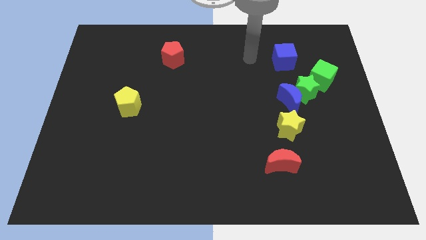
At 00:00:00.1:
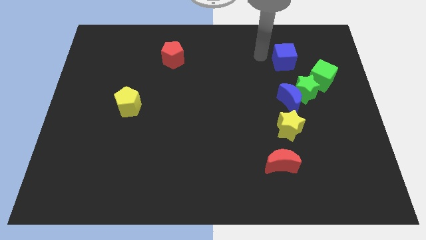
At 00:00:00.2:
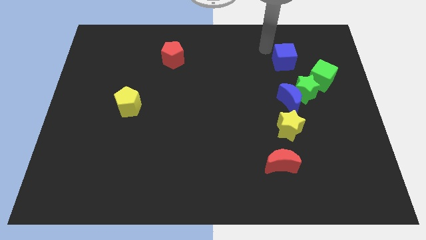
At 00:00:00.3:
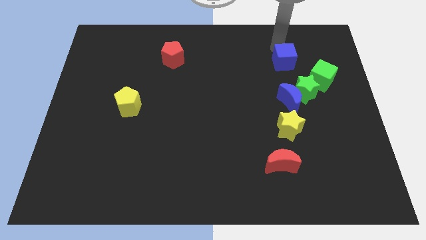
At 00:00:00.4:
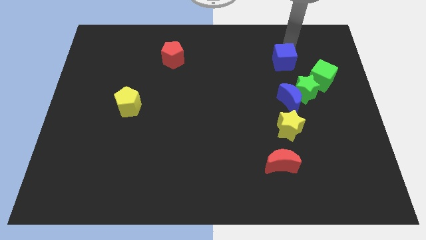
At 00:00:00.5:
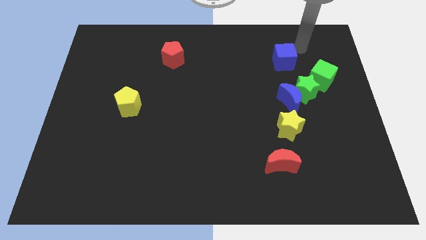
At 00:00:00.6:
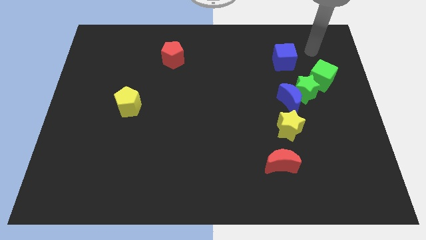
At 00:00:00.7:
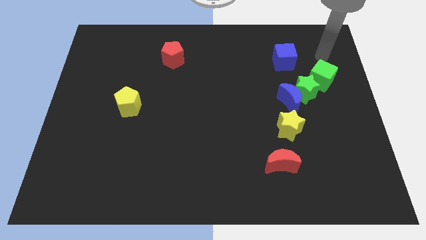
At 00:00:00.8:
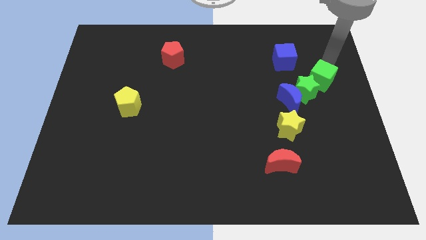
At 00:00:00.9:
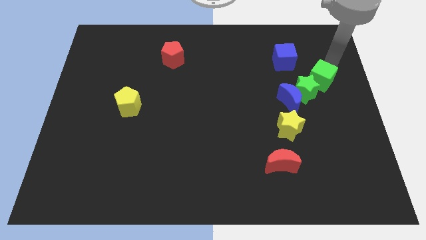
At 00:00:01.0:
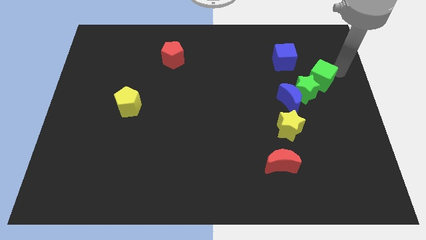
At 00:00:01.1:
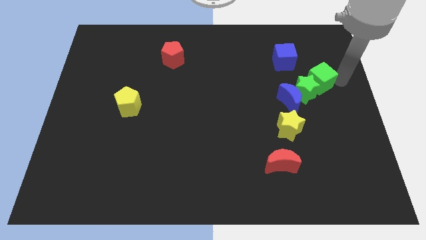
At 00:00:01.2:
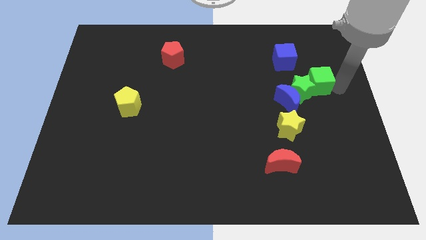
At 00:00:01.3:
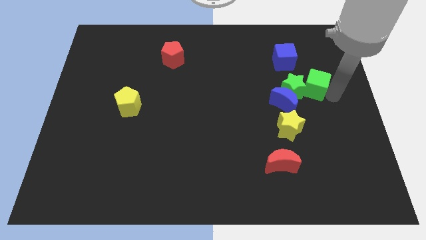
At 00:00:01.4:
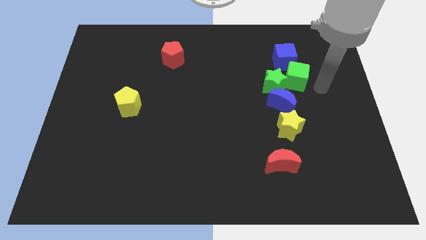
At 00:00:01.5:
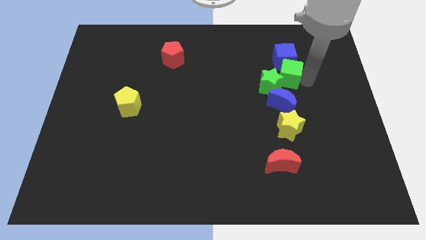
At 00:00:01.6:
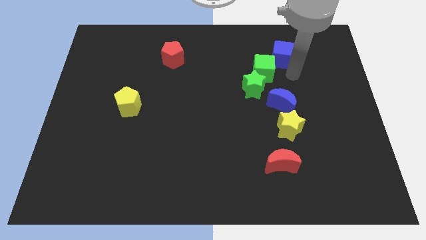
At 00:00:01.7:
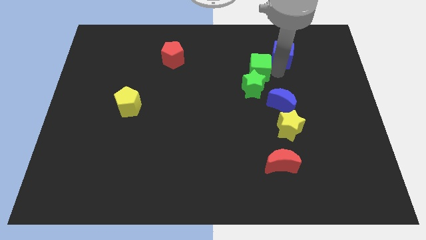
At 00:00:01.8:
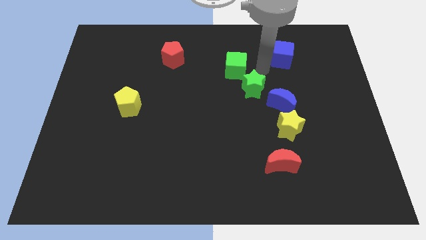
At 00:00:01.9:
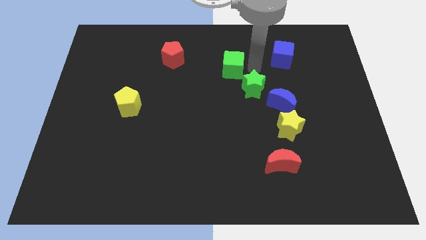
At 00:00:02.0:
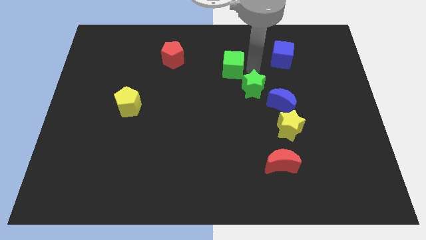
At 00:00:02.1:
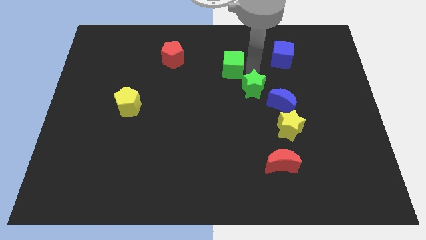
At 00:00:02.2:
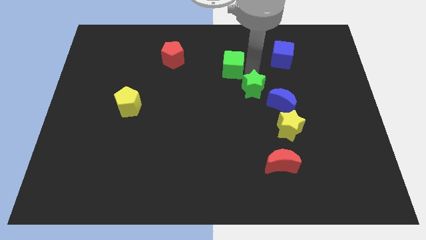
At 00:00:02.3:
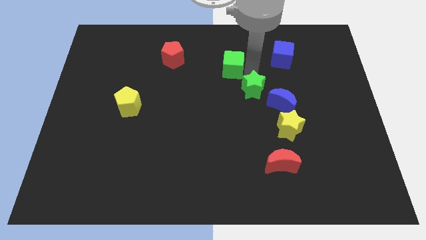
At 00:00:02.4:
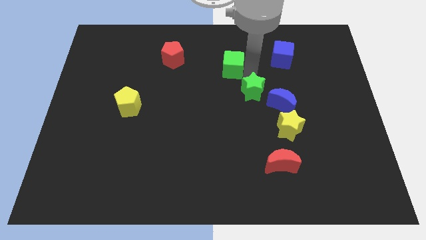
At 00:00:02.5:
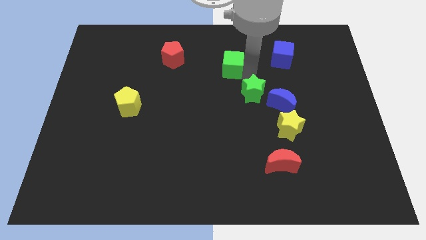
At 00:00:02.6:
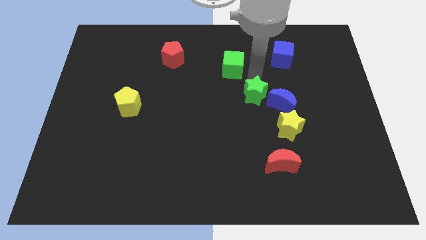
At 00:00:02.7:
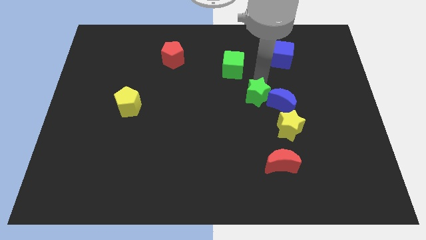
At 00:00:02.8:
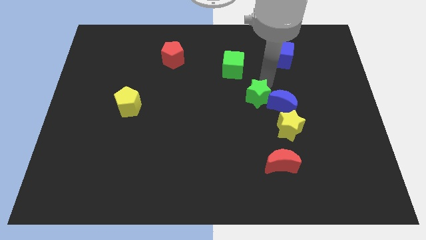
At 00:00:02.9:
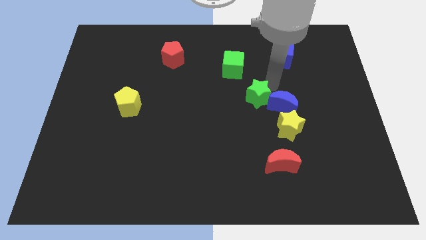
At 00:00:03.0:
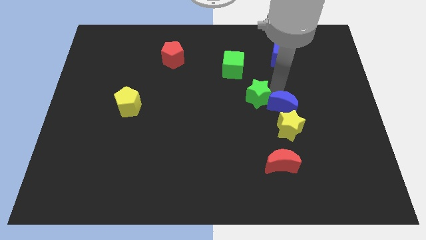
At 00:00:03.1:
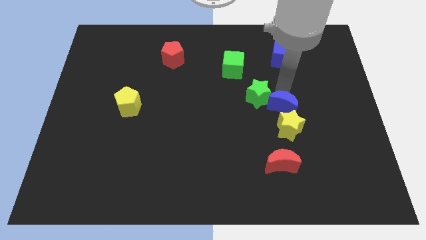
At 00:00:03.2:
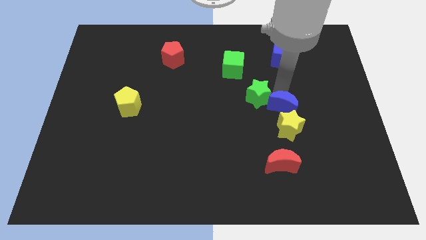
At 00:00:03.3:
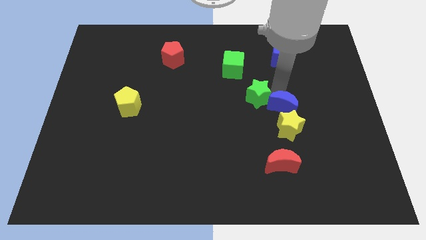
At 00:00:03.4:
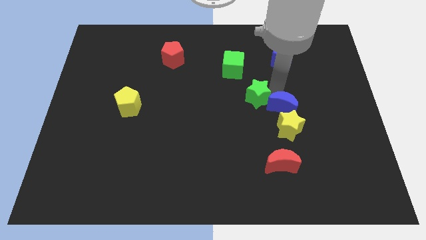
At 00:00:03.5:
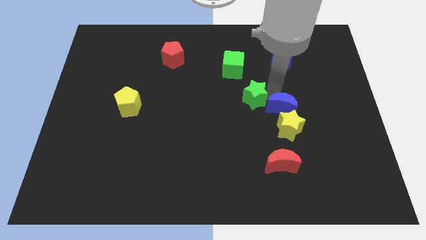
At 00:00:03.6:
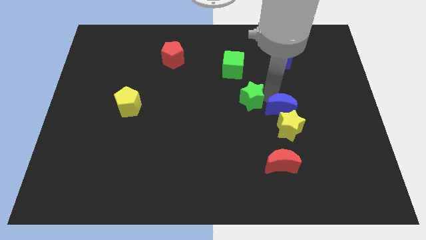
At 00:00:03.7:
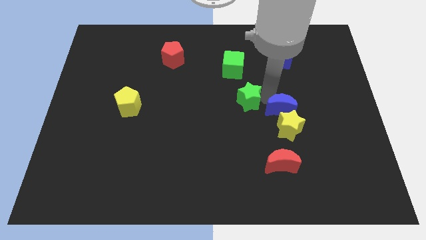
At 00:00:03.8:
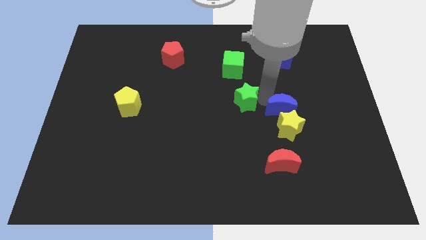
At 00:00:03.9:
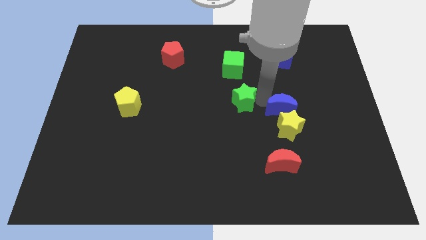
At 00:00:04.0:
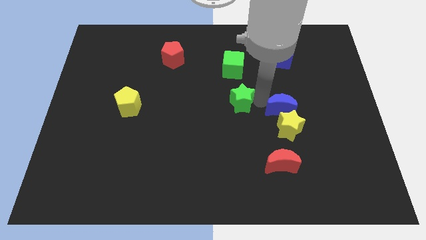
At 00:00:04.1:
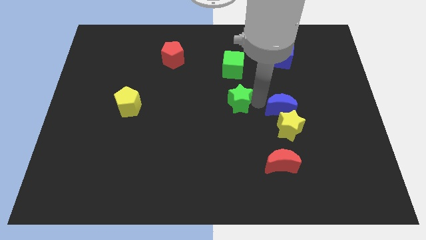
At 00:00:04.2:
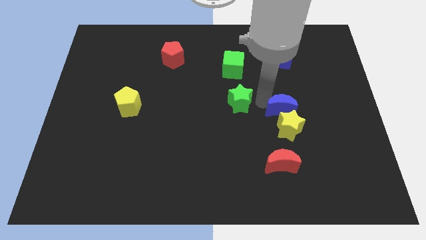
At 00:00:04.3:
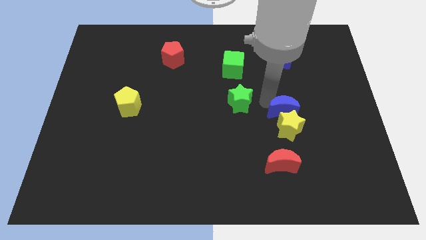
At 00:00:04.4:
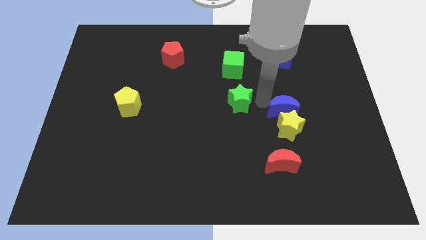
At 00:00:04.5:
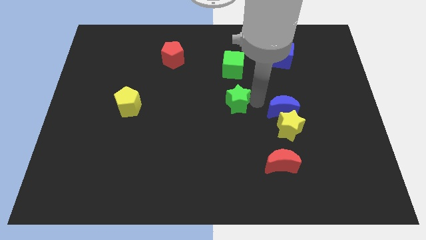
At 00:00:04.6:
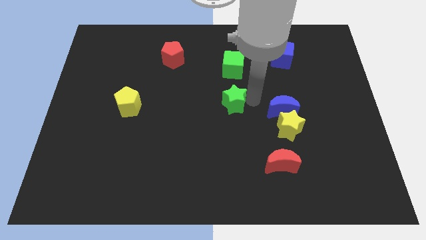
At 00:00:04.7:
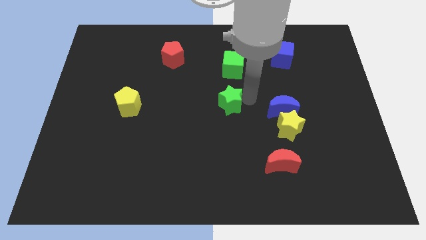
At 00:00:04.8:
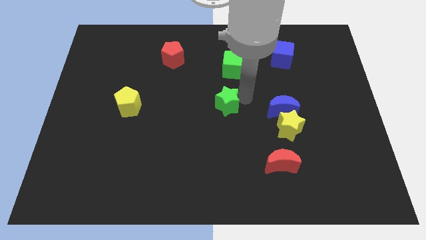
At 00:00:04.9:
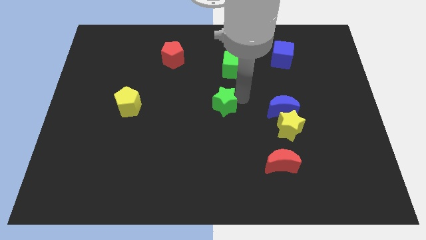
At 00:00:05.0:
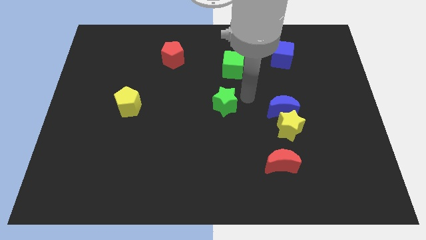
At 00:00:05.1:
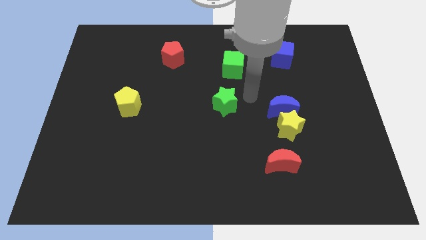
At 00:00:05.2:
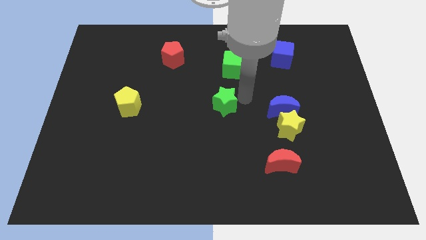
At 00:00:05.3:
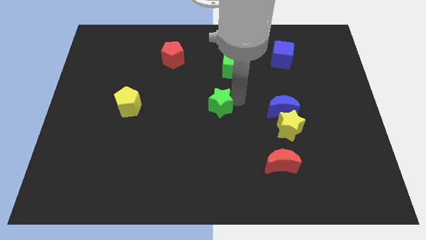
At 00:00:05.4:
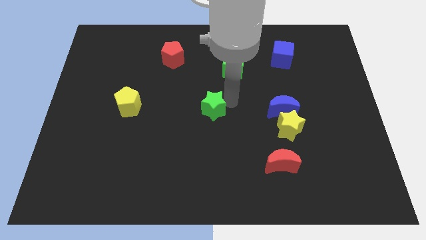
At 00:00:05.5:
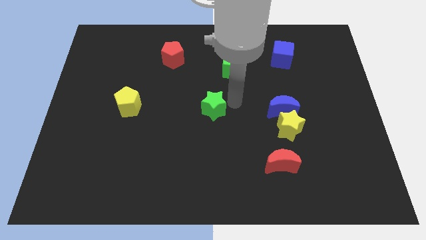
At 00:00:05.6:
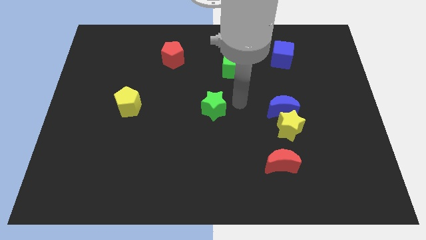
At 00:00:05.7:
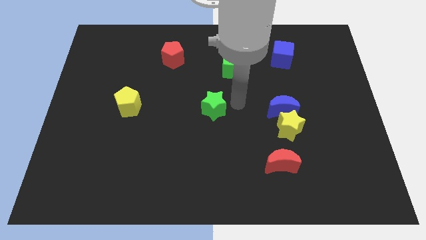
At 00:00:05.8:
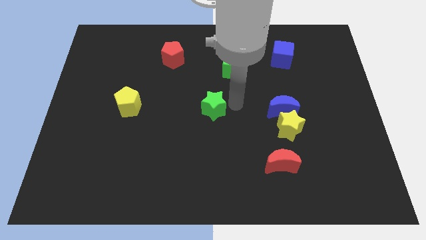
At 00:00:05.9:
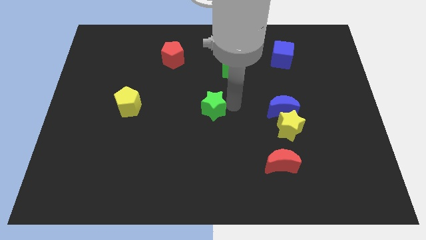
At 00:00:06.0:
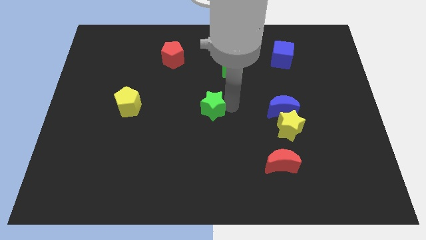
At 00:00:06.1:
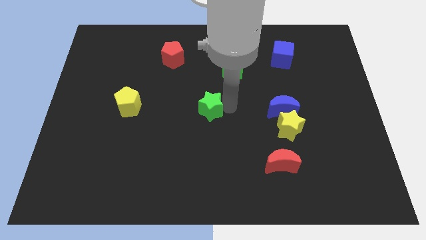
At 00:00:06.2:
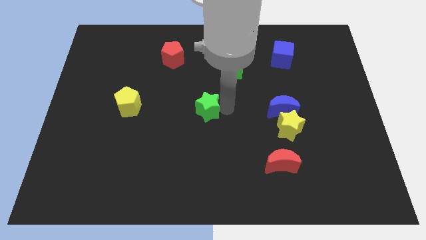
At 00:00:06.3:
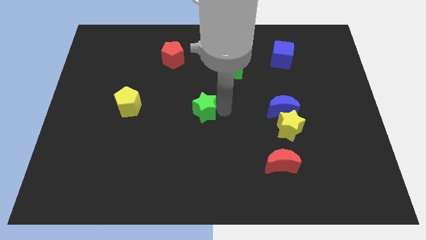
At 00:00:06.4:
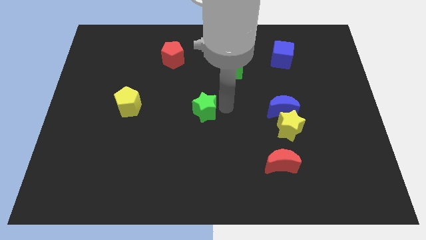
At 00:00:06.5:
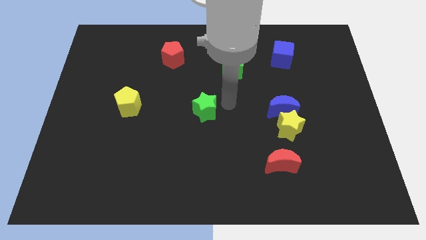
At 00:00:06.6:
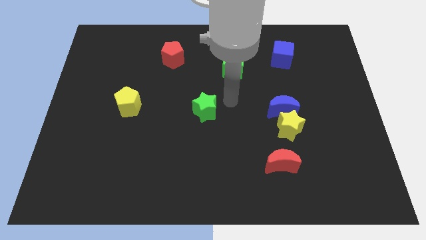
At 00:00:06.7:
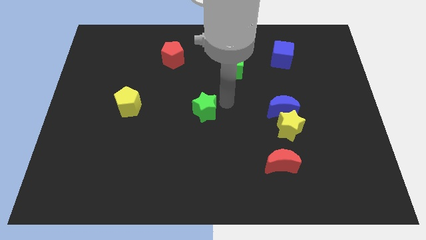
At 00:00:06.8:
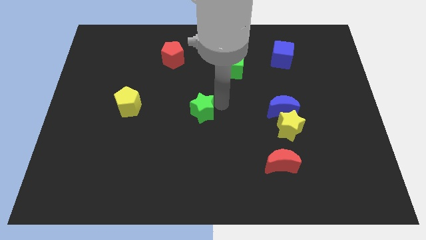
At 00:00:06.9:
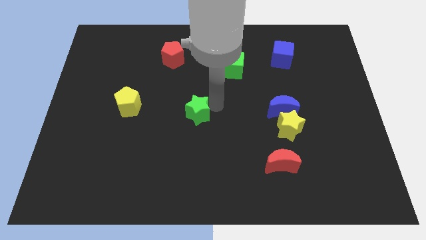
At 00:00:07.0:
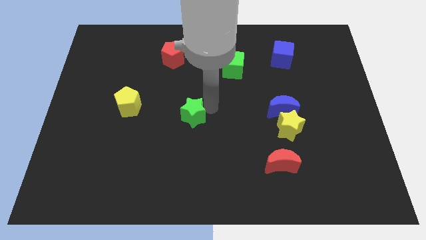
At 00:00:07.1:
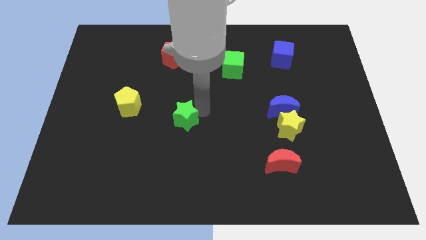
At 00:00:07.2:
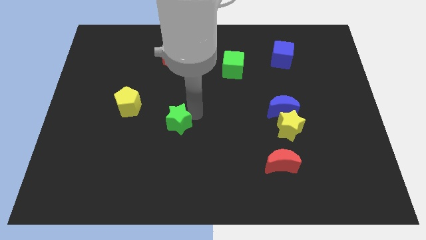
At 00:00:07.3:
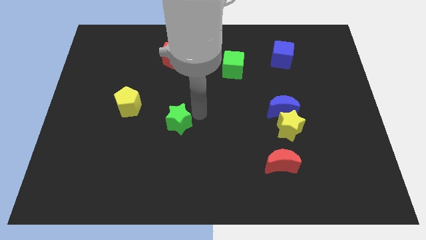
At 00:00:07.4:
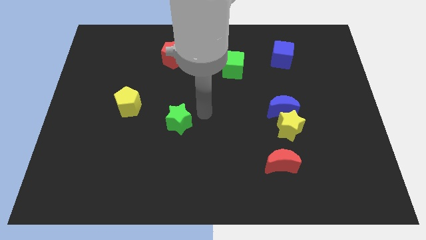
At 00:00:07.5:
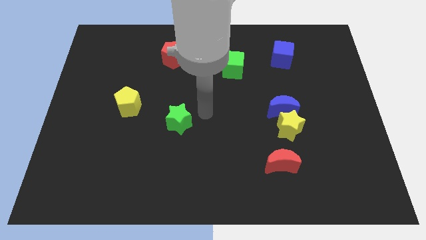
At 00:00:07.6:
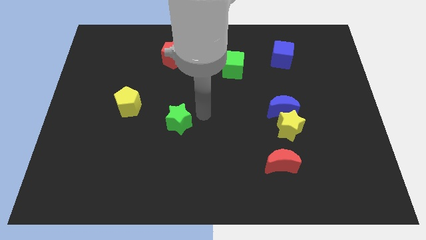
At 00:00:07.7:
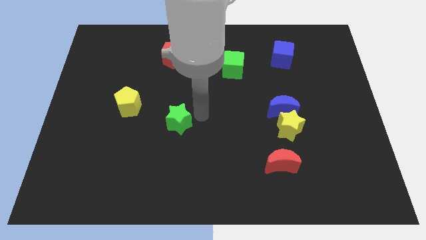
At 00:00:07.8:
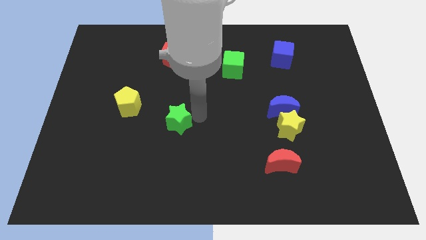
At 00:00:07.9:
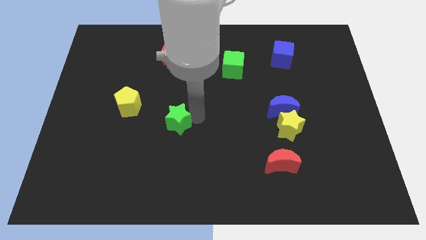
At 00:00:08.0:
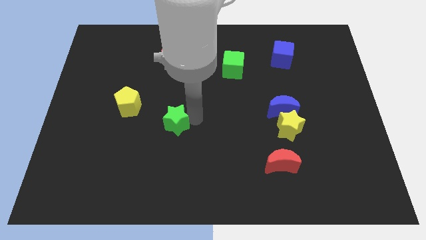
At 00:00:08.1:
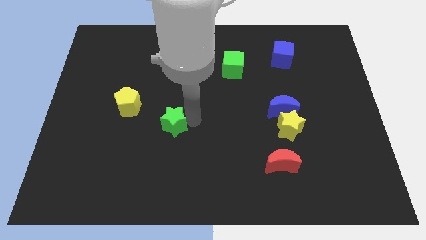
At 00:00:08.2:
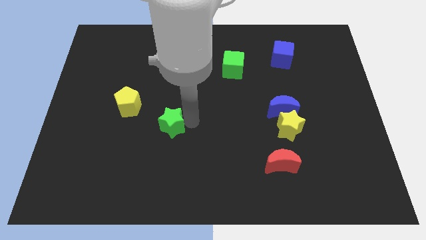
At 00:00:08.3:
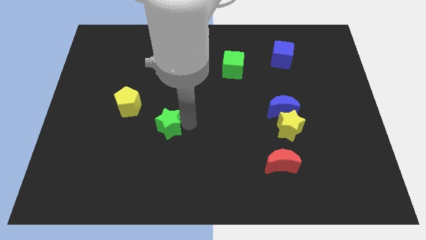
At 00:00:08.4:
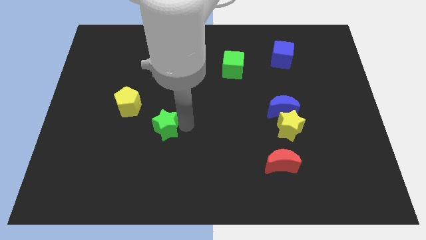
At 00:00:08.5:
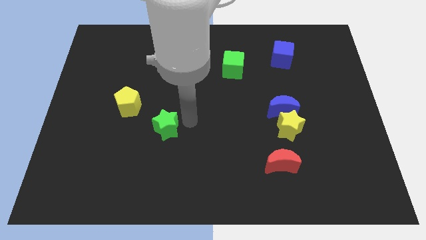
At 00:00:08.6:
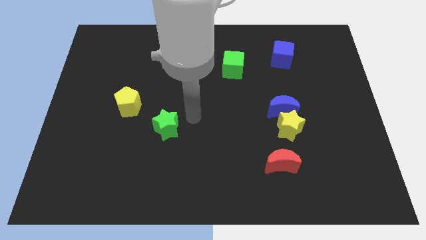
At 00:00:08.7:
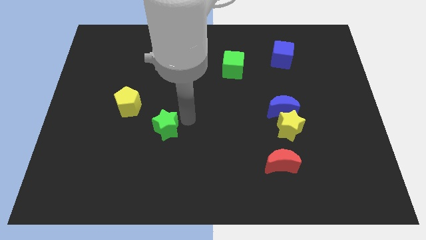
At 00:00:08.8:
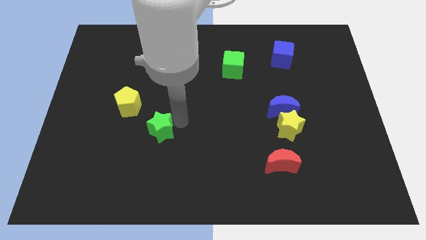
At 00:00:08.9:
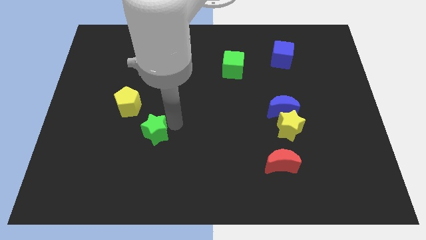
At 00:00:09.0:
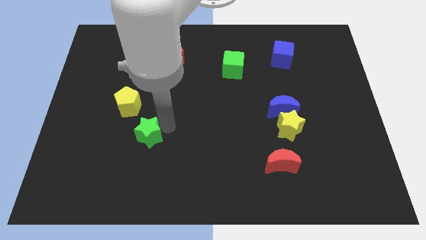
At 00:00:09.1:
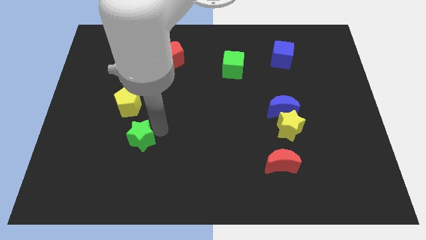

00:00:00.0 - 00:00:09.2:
slide the green star to the bottom side of the yellow pentagon
